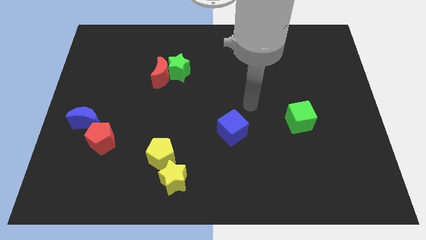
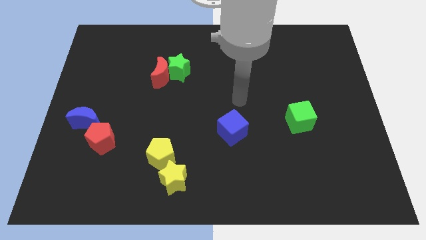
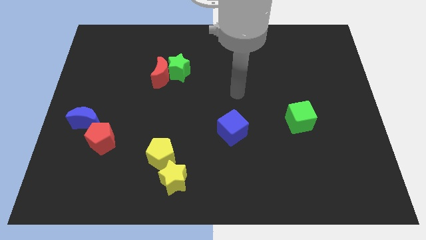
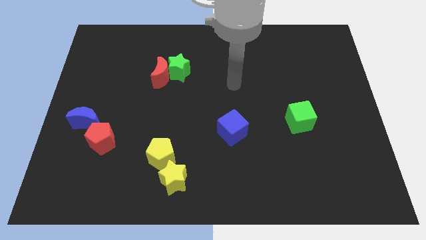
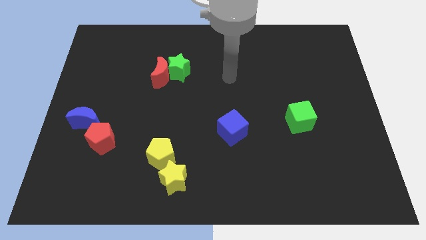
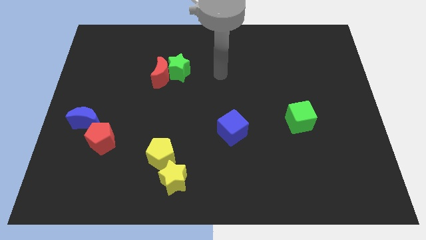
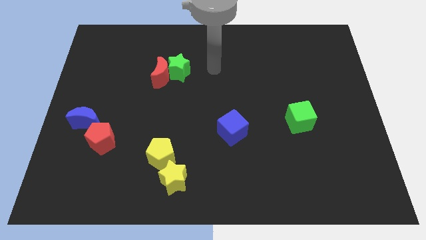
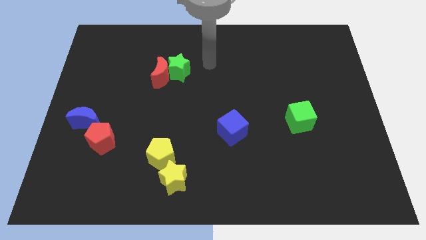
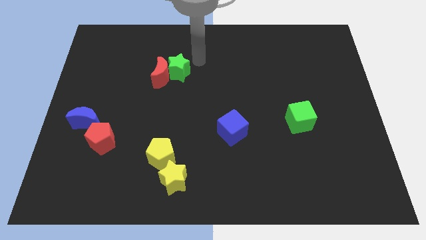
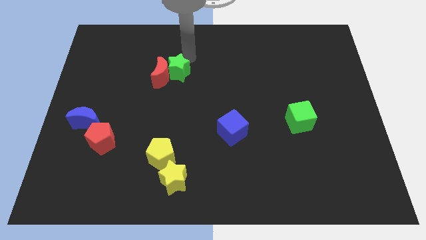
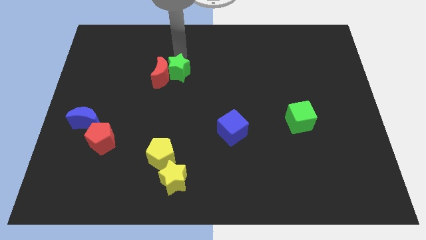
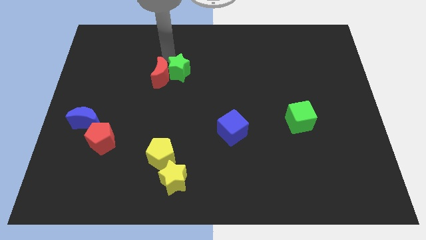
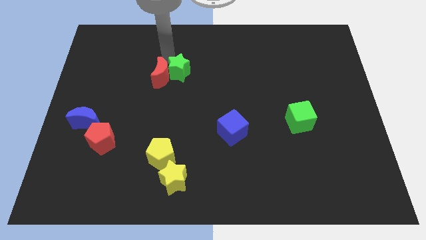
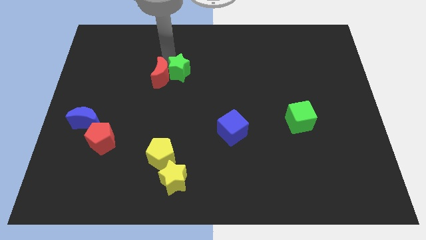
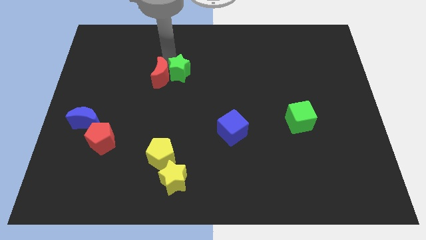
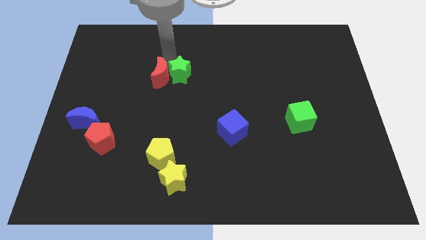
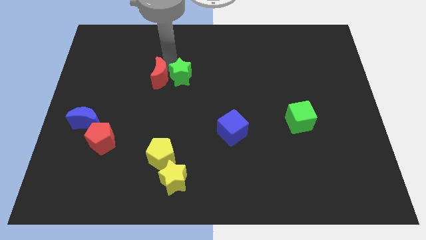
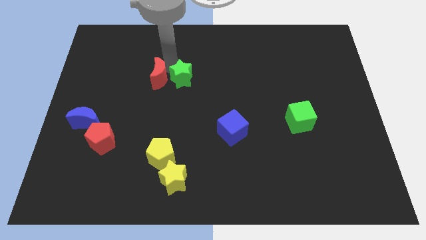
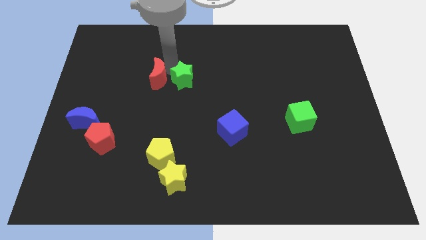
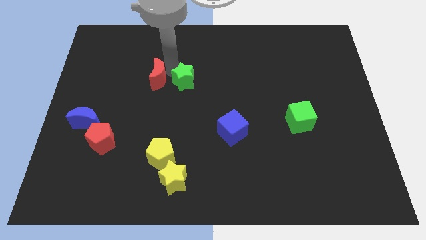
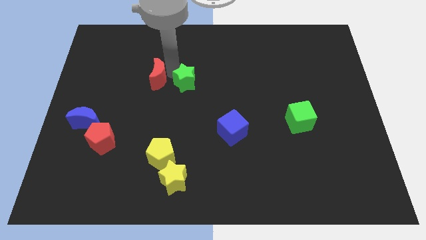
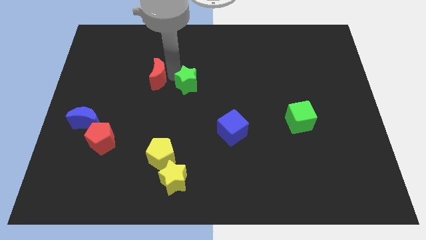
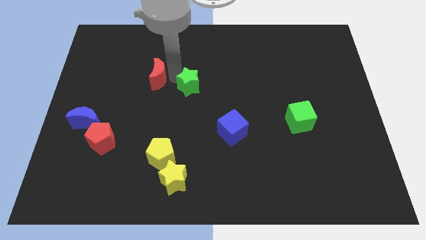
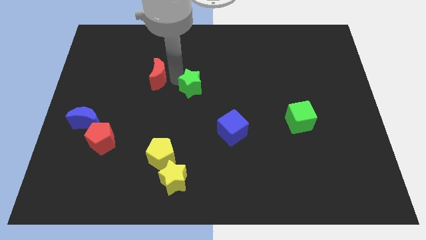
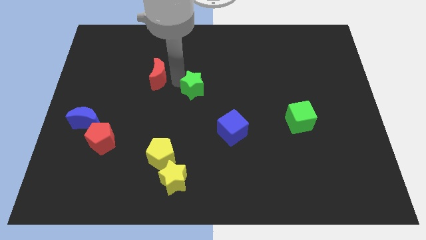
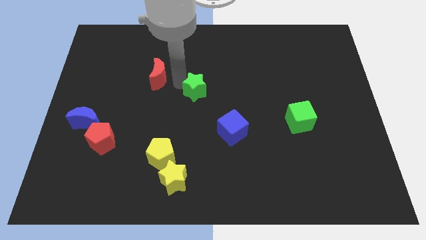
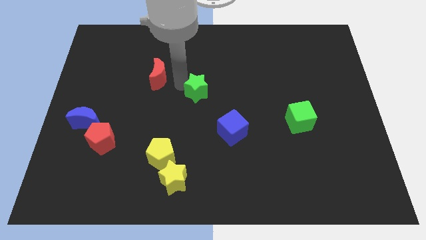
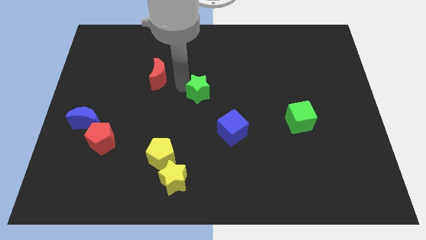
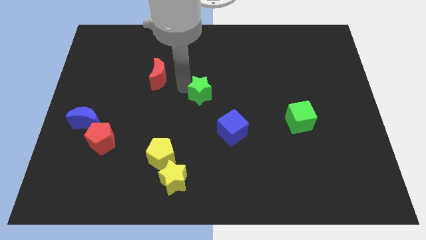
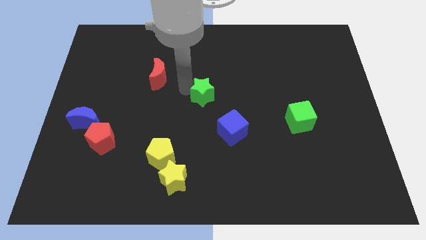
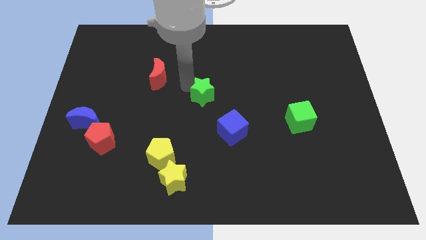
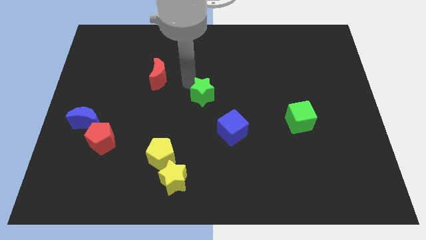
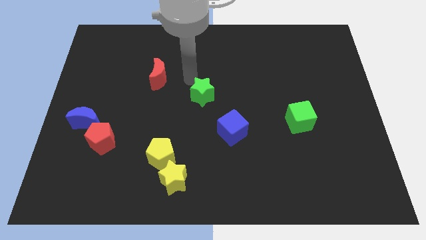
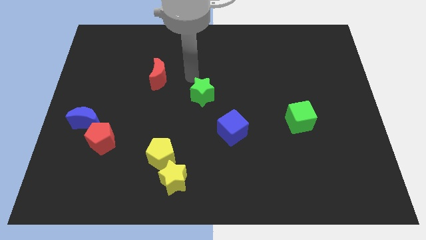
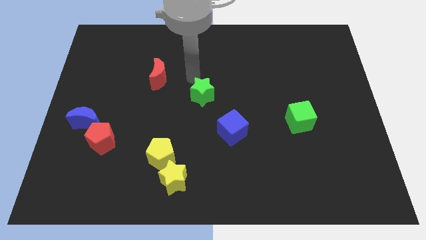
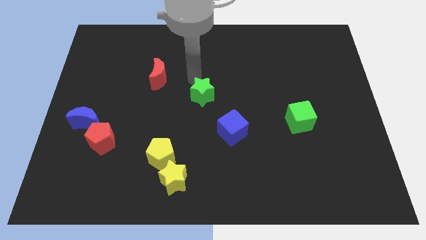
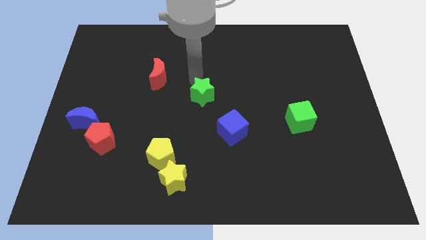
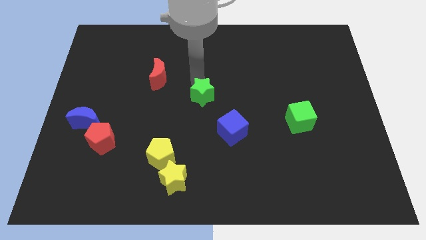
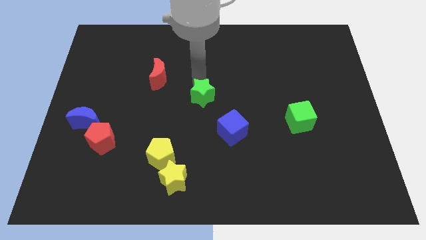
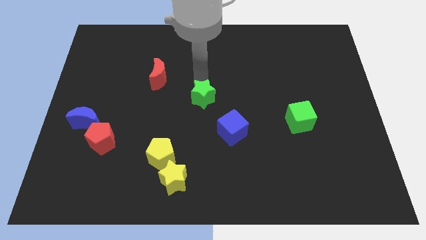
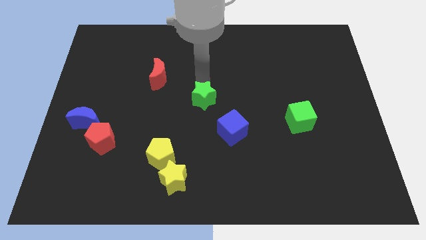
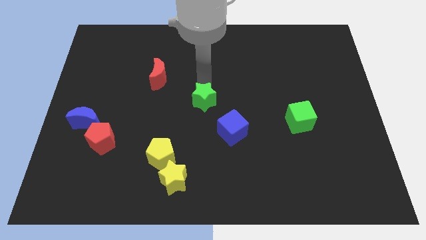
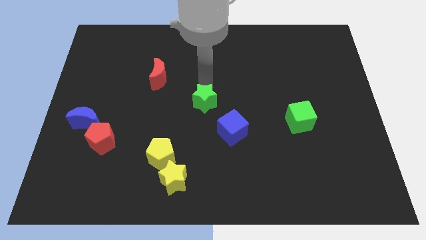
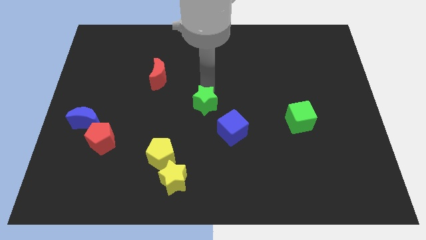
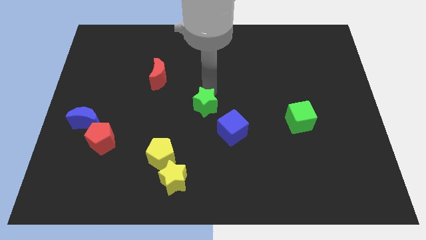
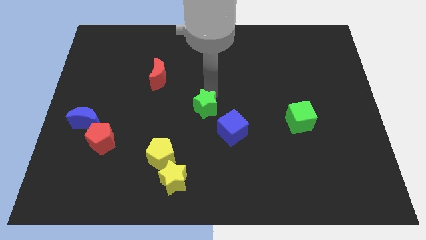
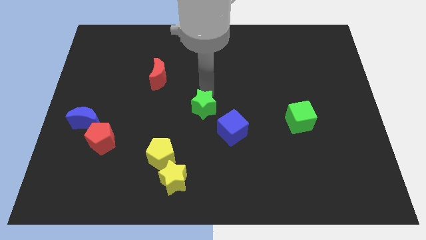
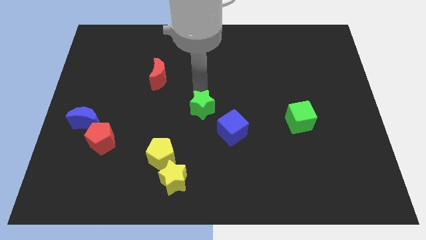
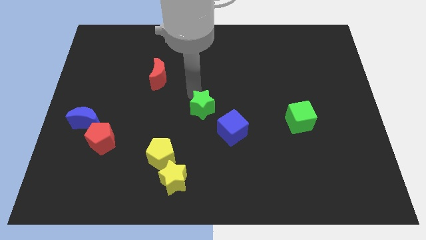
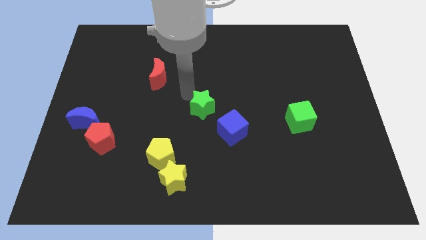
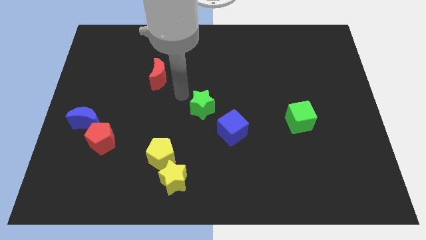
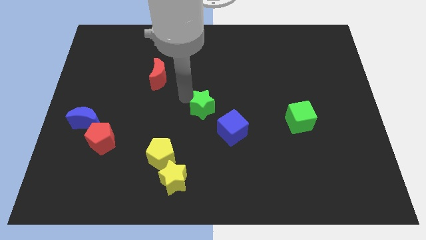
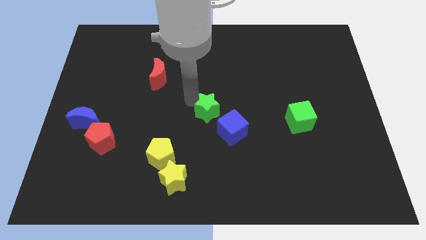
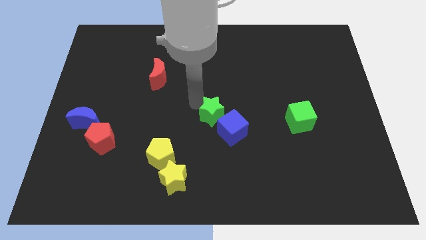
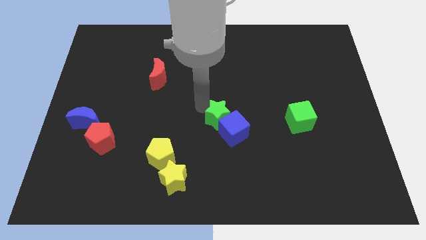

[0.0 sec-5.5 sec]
put the green star next to the blue cube

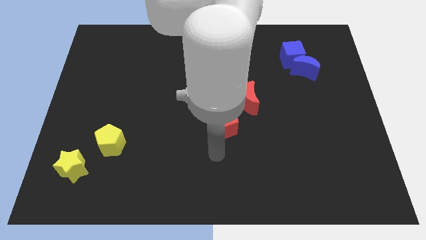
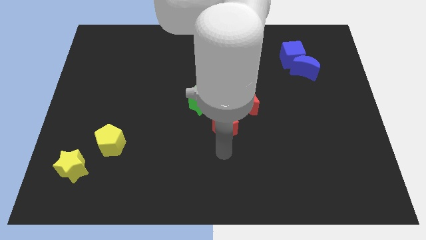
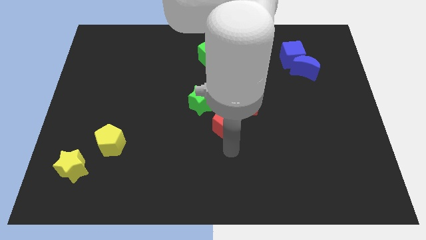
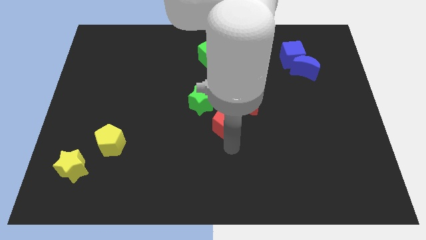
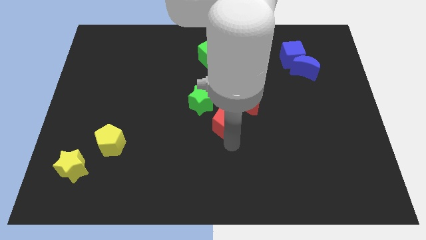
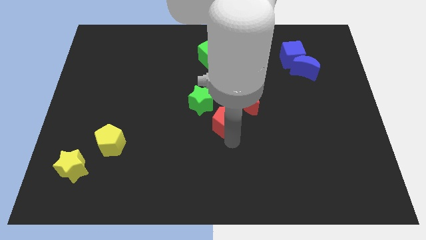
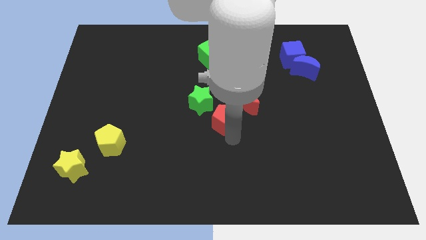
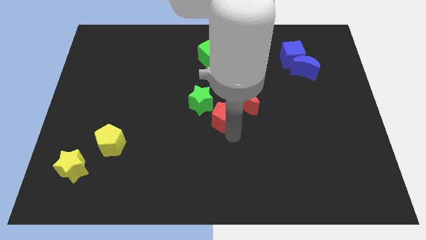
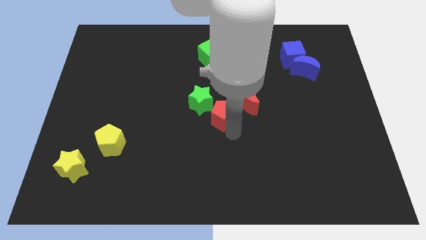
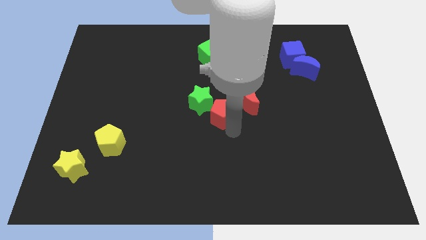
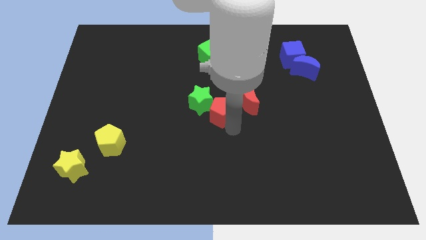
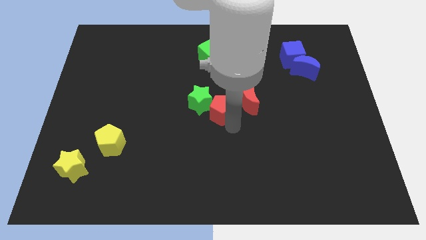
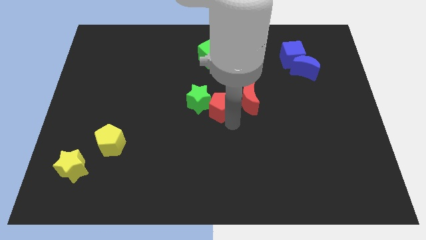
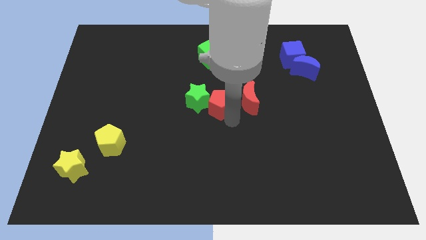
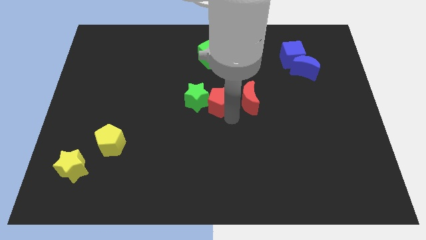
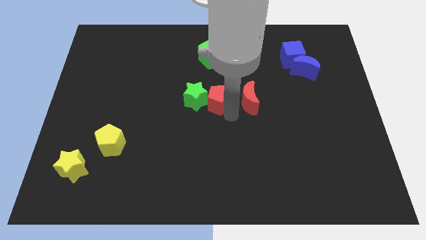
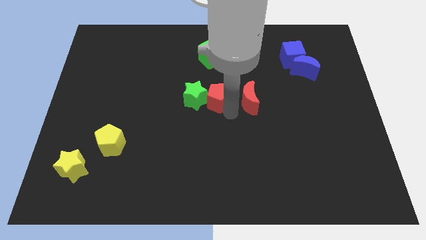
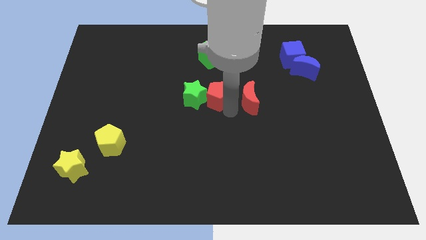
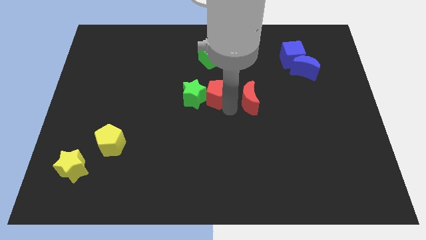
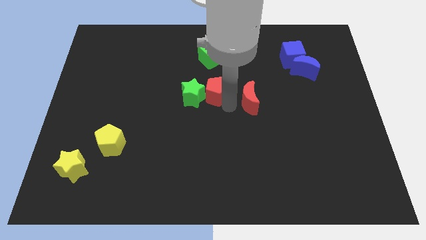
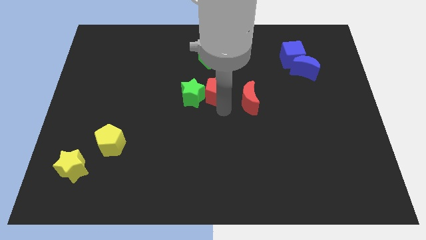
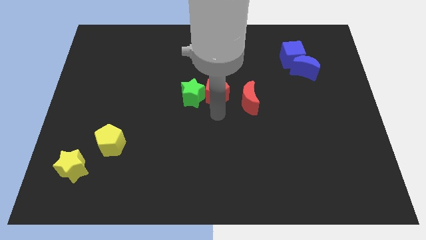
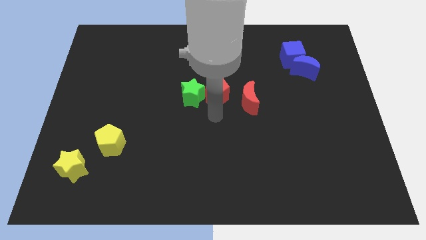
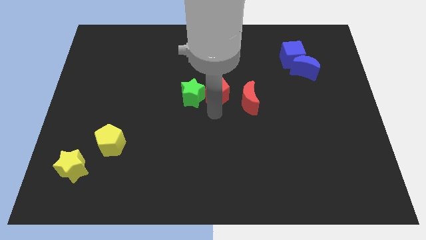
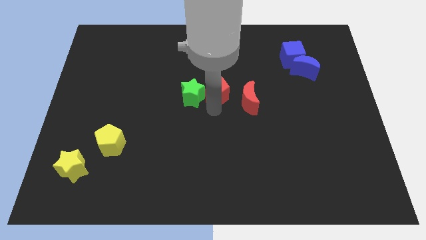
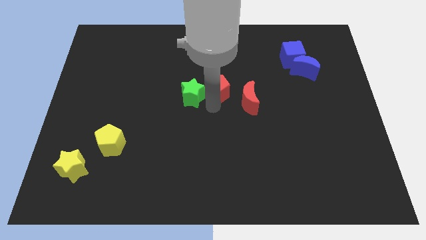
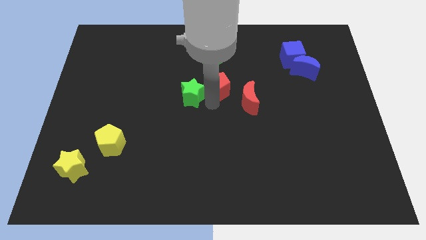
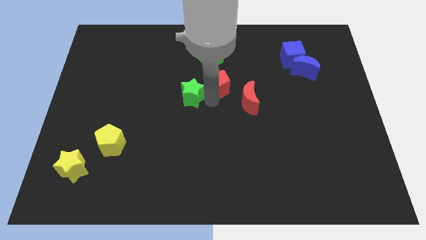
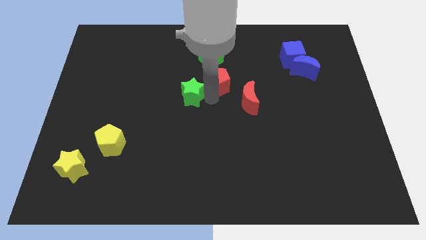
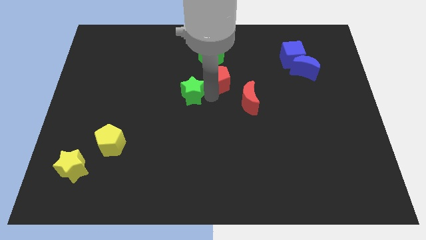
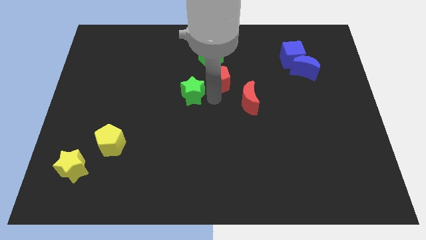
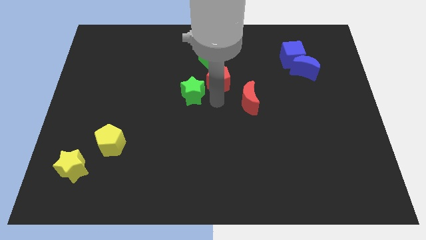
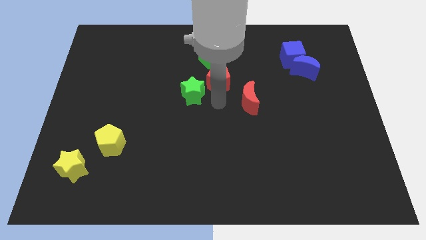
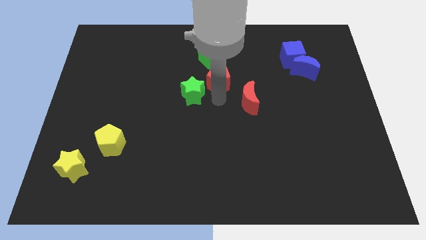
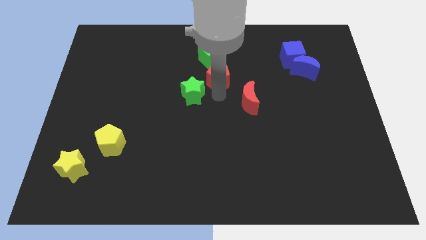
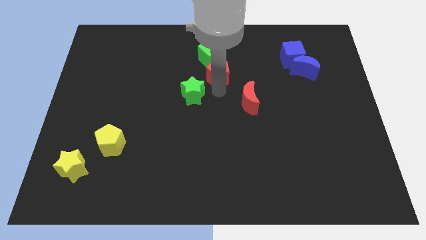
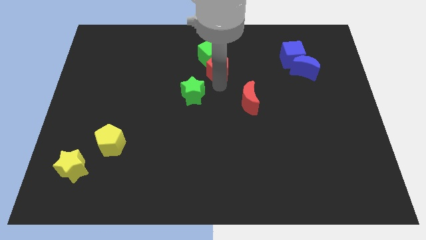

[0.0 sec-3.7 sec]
move the red pentagon to the green cube
